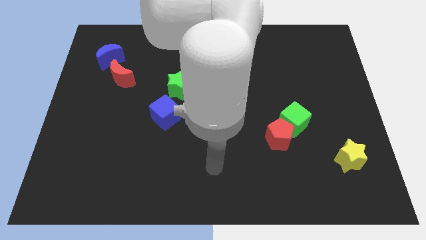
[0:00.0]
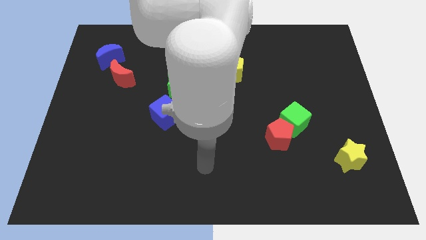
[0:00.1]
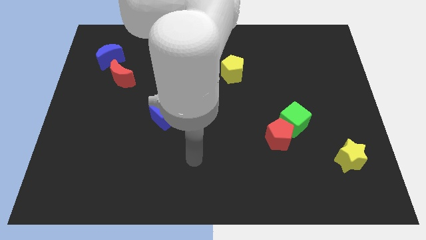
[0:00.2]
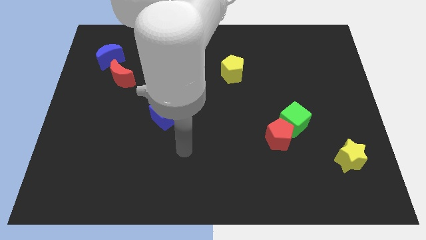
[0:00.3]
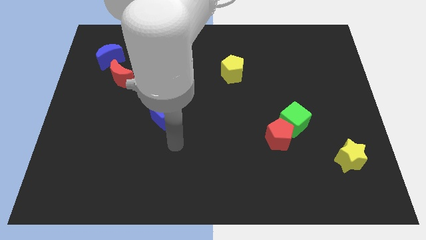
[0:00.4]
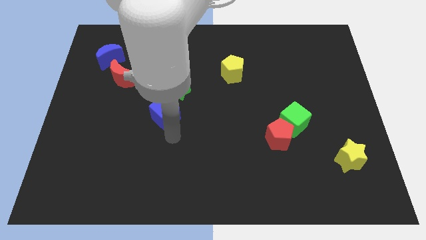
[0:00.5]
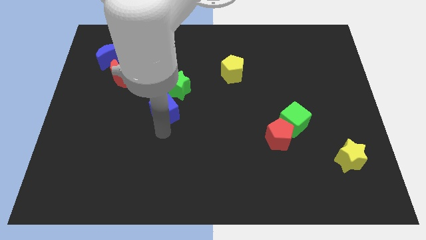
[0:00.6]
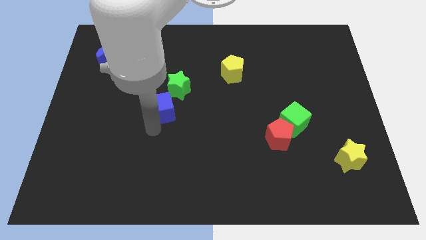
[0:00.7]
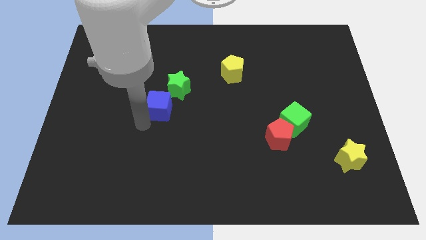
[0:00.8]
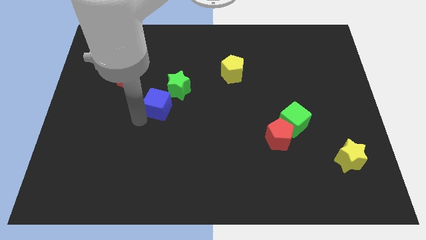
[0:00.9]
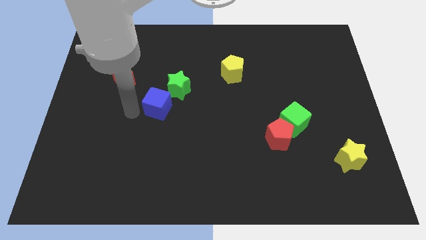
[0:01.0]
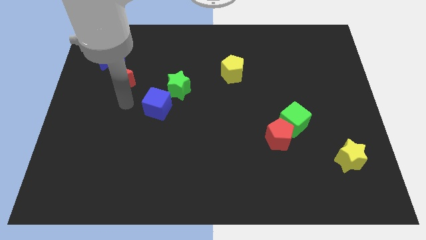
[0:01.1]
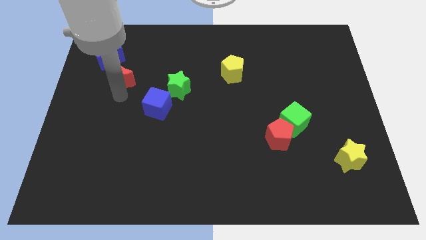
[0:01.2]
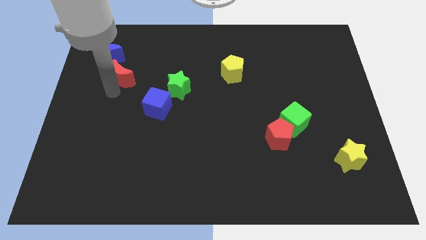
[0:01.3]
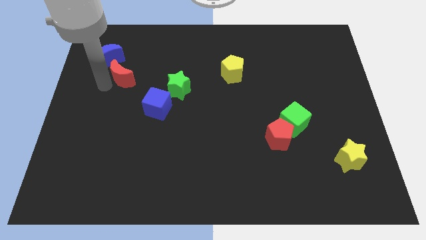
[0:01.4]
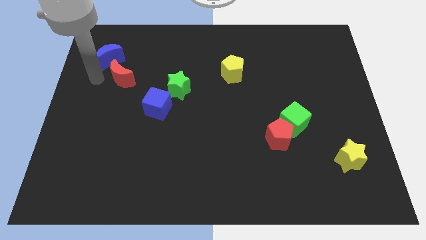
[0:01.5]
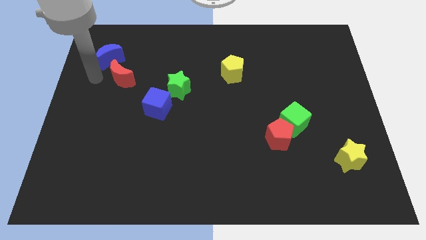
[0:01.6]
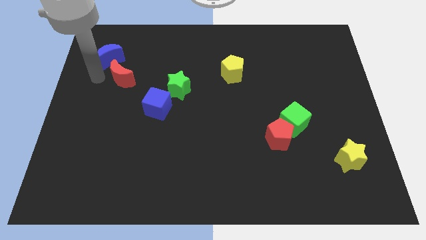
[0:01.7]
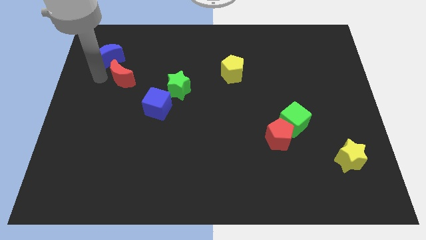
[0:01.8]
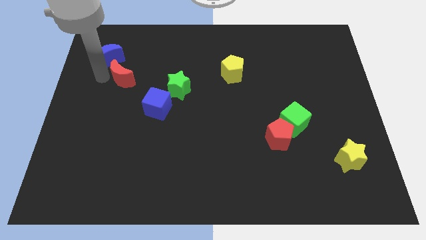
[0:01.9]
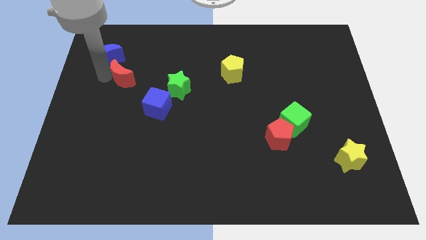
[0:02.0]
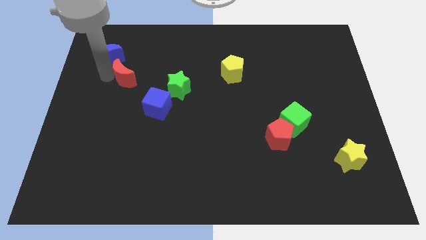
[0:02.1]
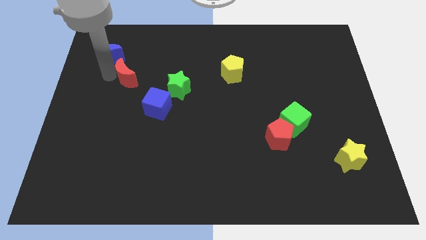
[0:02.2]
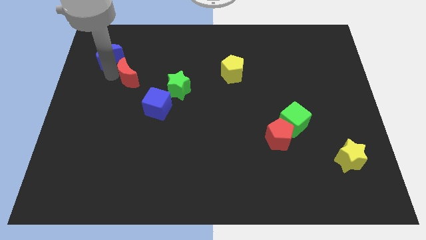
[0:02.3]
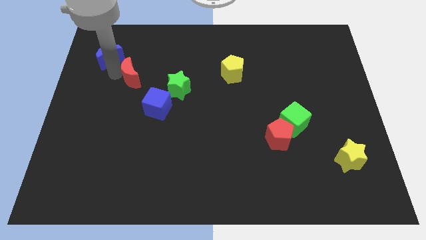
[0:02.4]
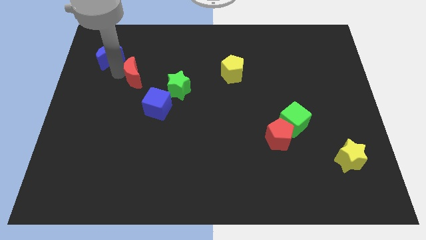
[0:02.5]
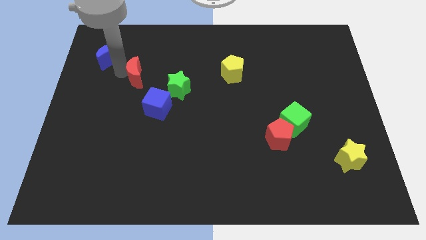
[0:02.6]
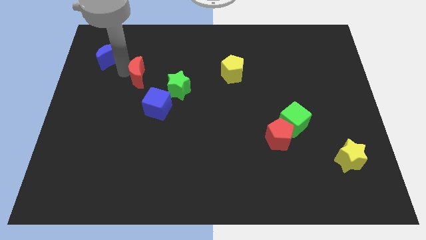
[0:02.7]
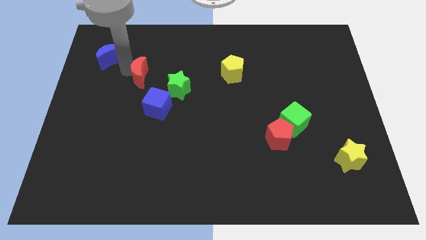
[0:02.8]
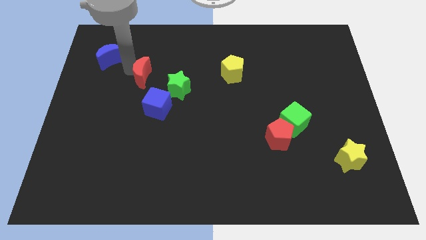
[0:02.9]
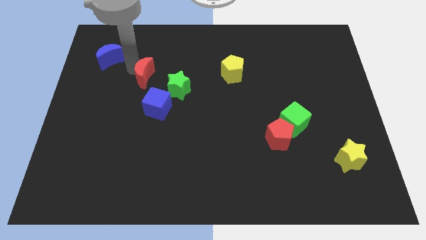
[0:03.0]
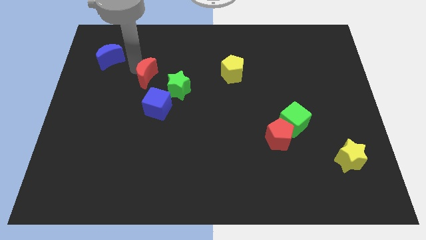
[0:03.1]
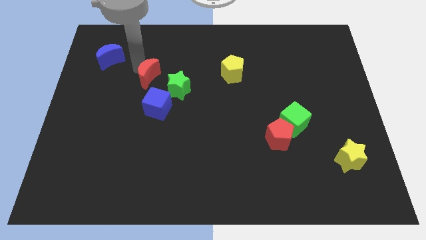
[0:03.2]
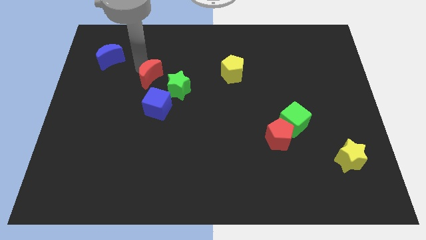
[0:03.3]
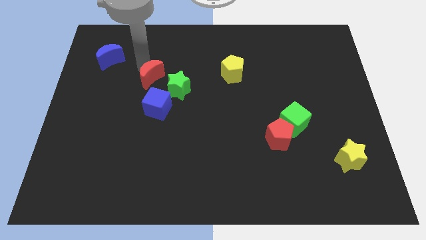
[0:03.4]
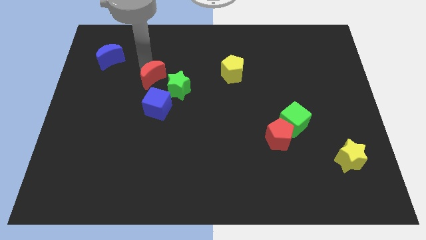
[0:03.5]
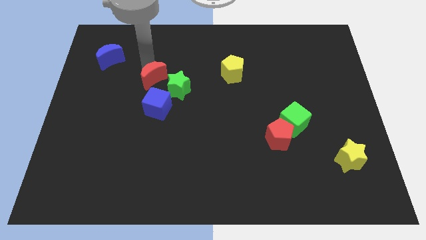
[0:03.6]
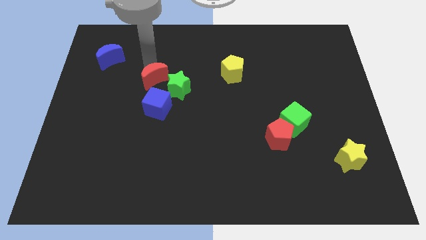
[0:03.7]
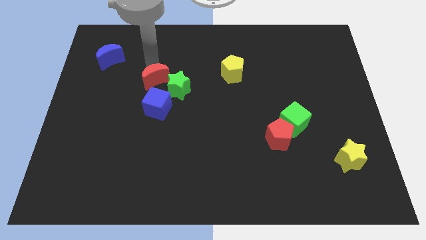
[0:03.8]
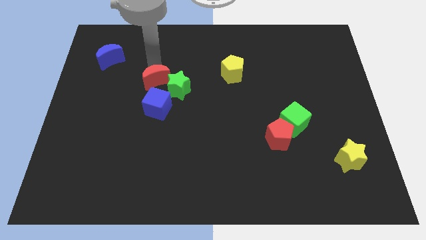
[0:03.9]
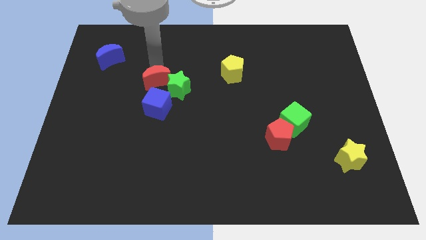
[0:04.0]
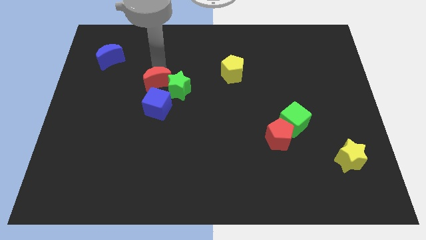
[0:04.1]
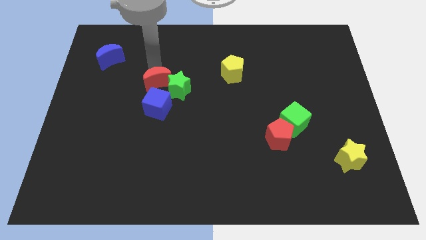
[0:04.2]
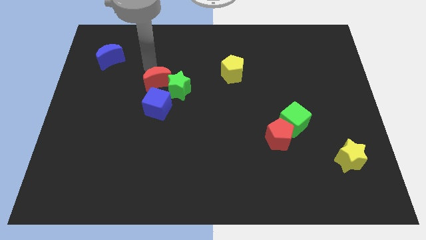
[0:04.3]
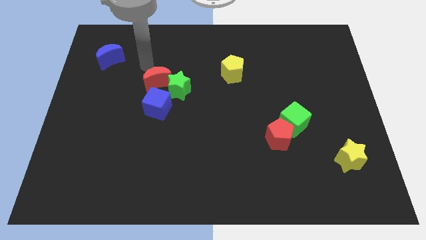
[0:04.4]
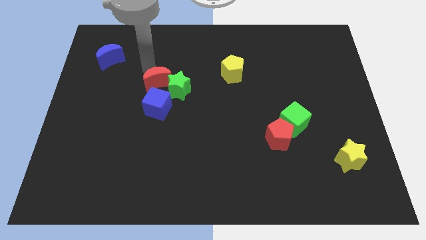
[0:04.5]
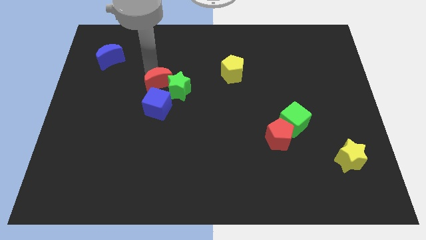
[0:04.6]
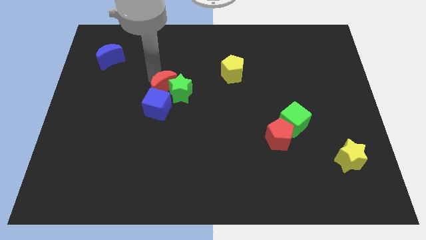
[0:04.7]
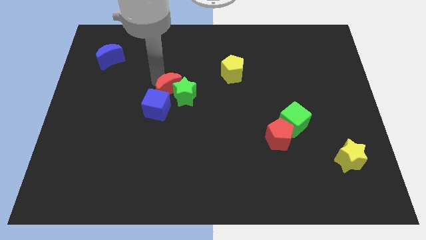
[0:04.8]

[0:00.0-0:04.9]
push the red moon to the center of the board

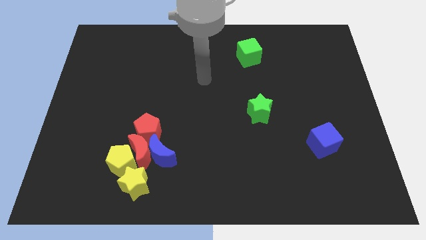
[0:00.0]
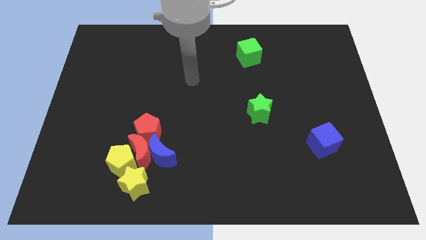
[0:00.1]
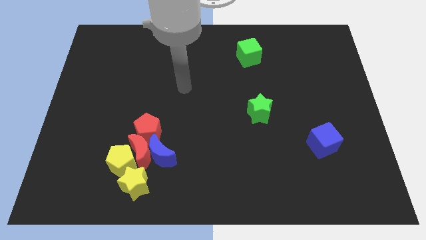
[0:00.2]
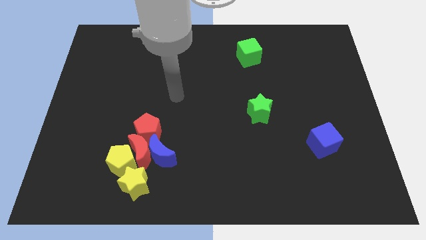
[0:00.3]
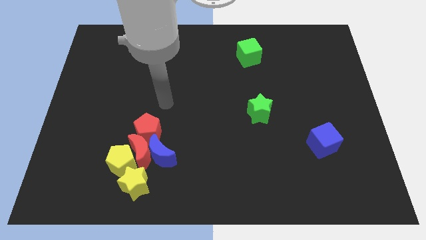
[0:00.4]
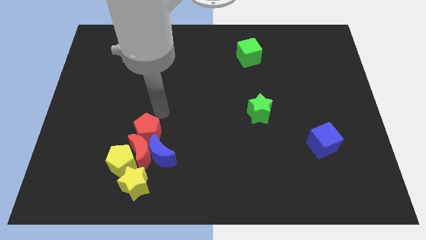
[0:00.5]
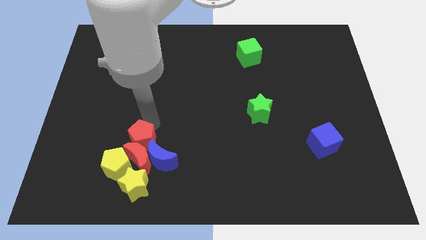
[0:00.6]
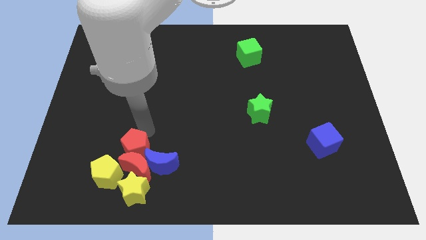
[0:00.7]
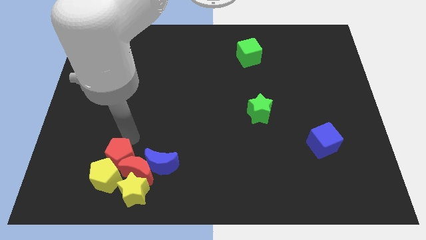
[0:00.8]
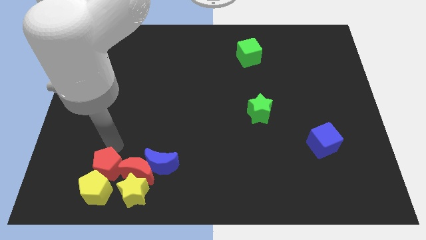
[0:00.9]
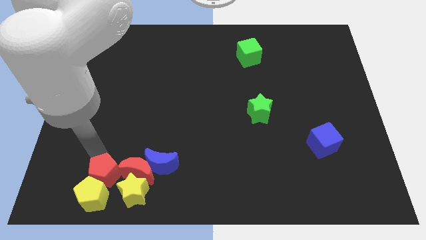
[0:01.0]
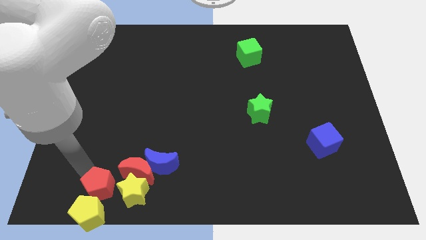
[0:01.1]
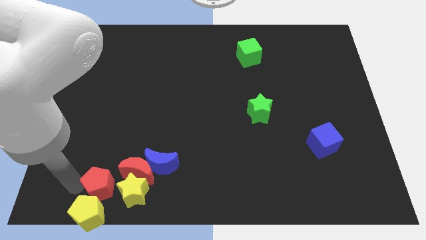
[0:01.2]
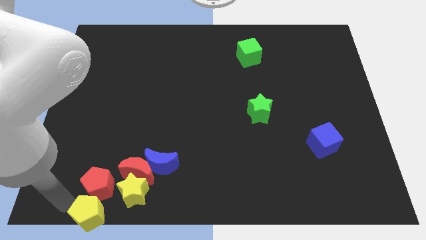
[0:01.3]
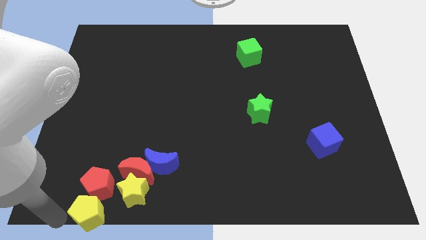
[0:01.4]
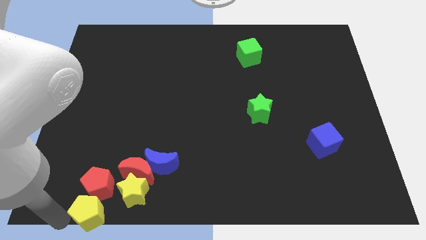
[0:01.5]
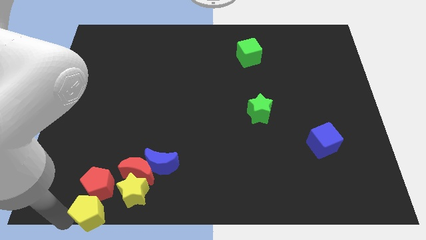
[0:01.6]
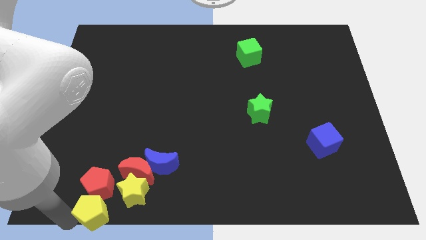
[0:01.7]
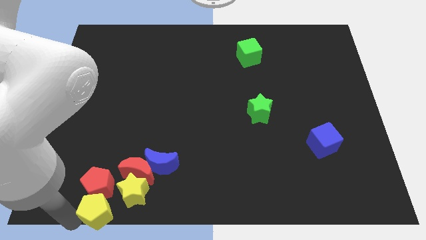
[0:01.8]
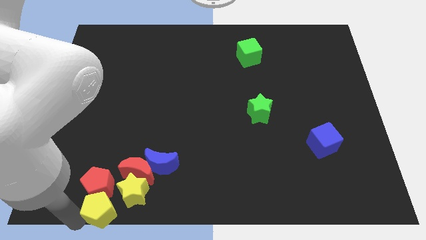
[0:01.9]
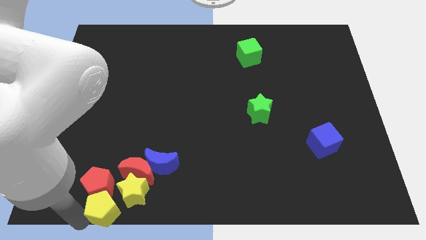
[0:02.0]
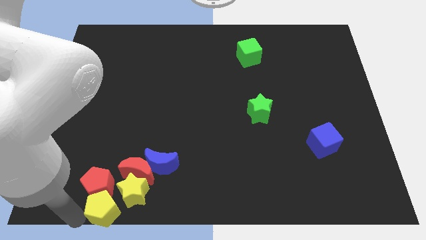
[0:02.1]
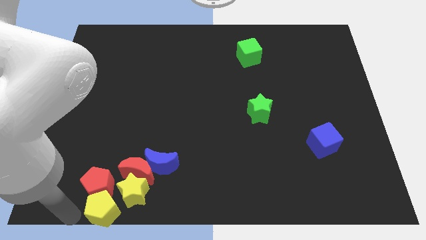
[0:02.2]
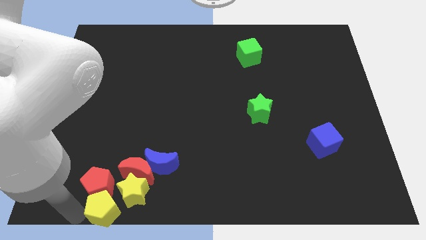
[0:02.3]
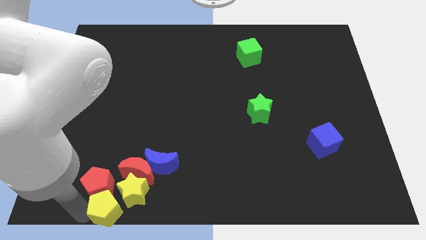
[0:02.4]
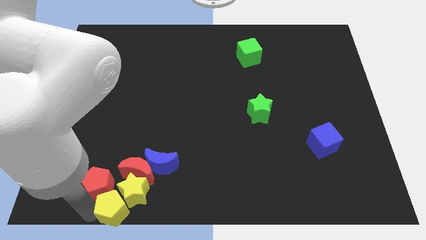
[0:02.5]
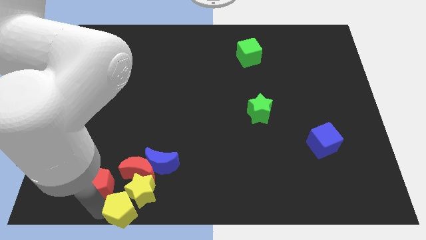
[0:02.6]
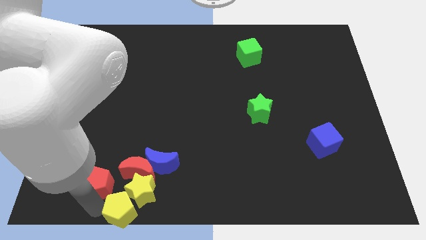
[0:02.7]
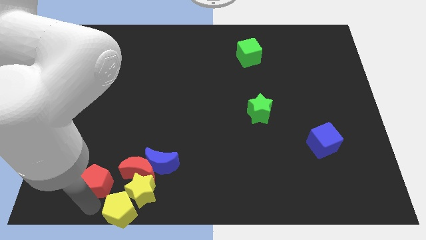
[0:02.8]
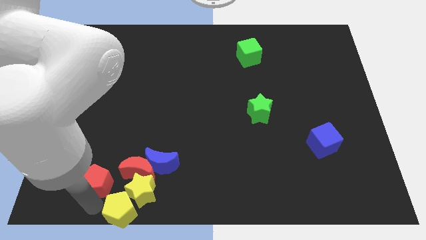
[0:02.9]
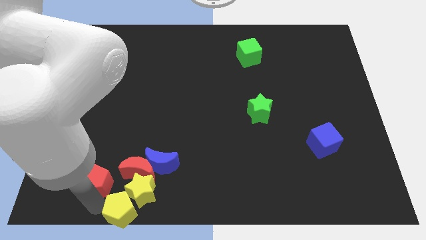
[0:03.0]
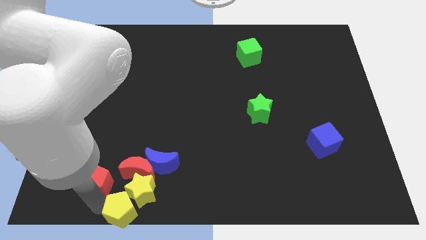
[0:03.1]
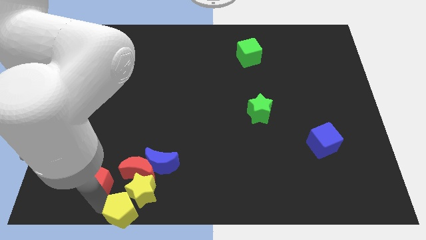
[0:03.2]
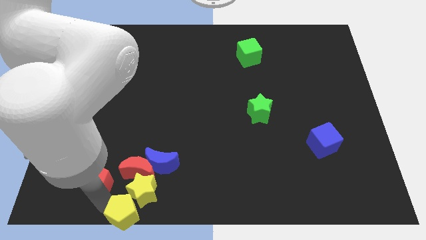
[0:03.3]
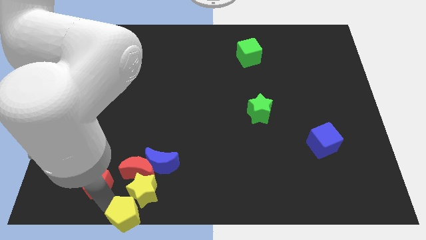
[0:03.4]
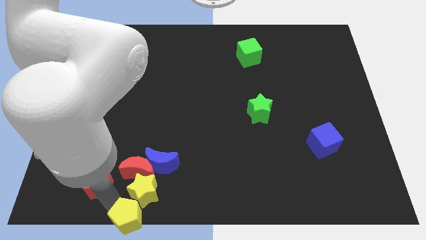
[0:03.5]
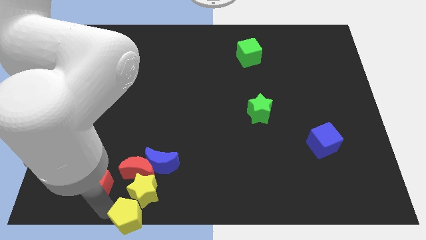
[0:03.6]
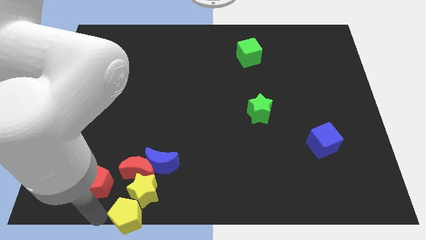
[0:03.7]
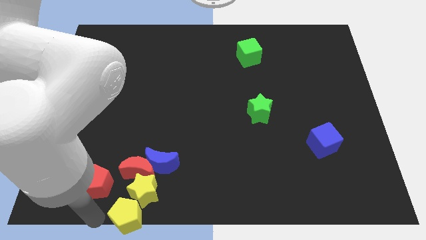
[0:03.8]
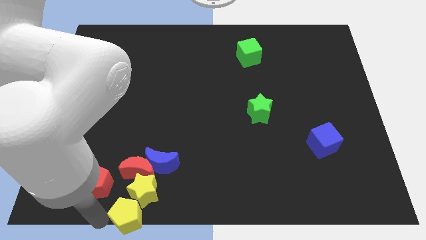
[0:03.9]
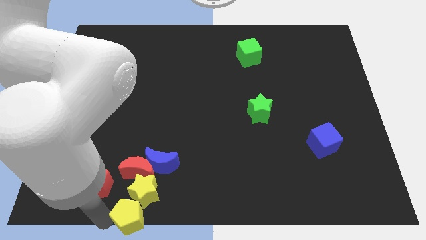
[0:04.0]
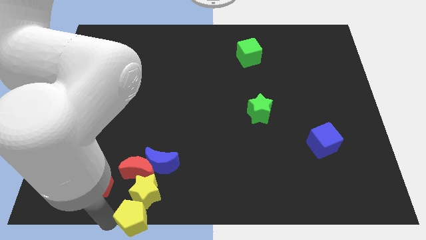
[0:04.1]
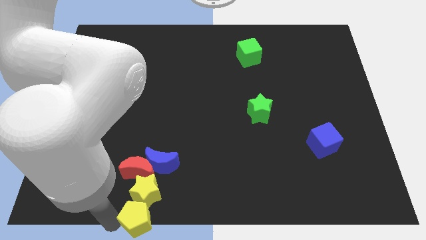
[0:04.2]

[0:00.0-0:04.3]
put the yellow pentagon to the bottom side
